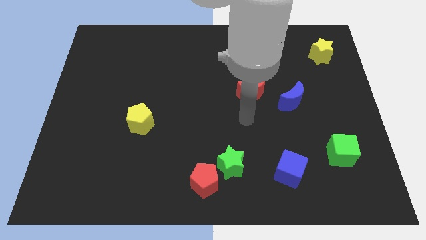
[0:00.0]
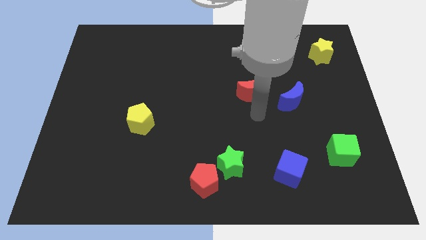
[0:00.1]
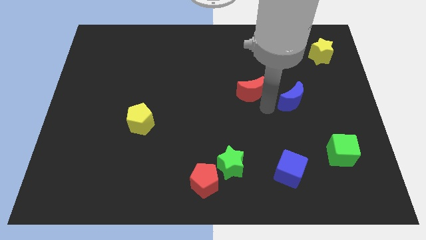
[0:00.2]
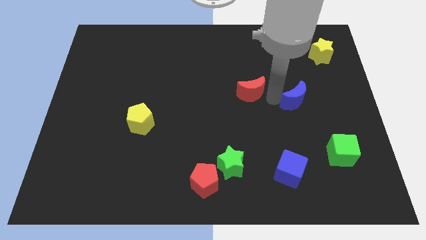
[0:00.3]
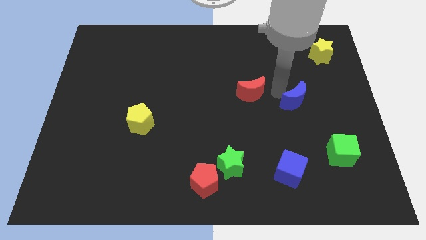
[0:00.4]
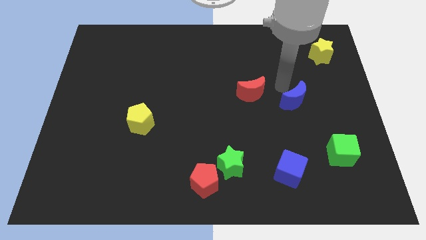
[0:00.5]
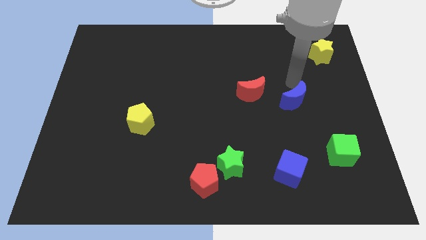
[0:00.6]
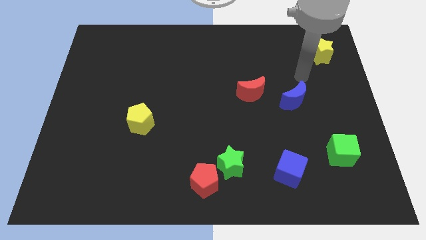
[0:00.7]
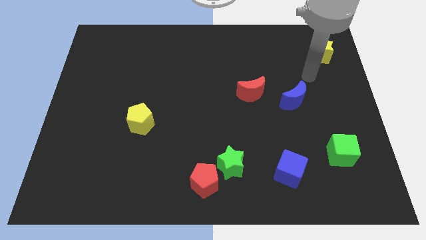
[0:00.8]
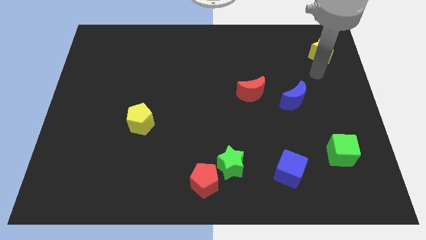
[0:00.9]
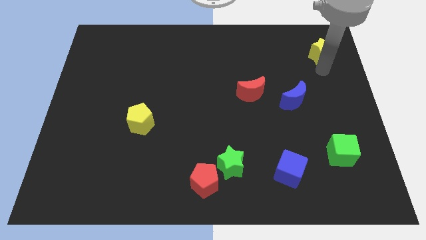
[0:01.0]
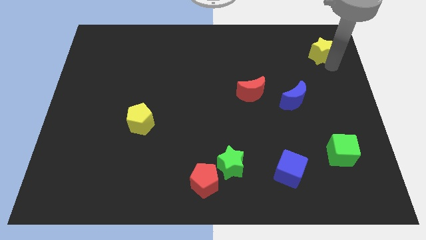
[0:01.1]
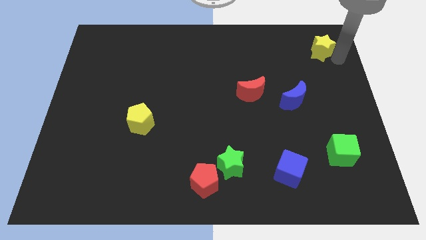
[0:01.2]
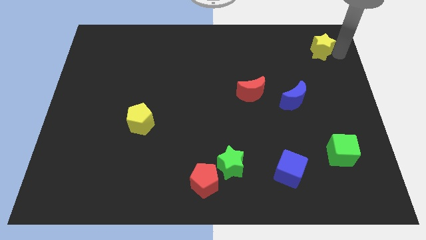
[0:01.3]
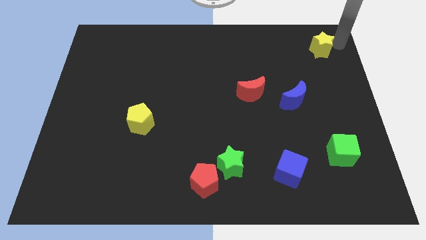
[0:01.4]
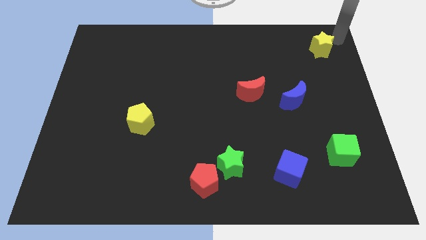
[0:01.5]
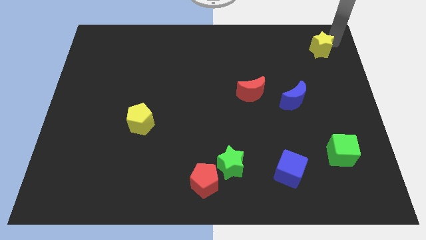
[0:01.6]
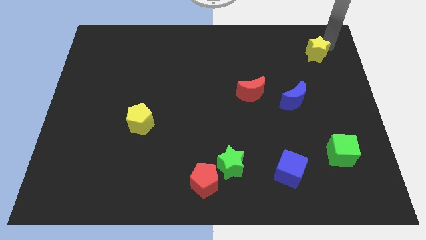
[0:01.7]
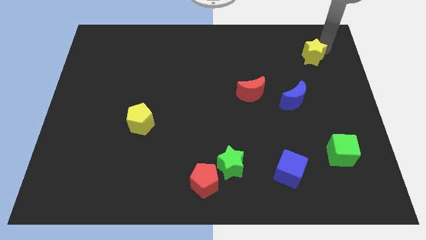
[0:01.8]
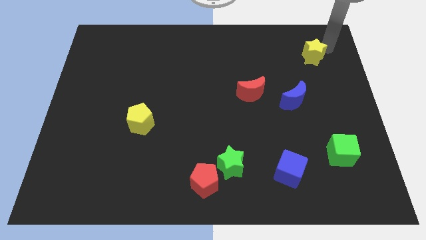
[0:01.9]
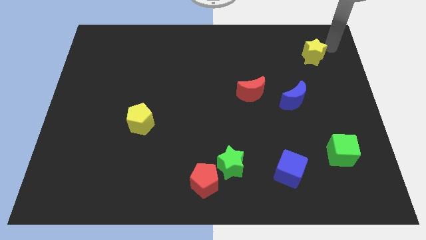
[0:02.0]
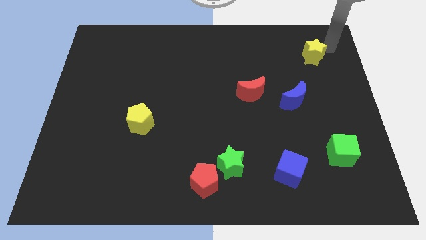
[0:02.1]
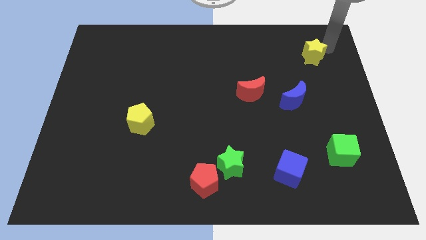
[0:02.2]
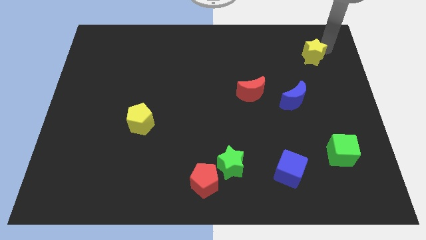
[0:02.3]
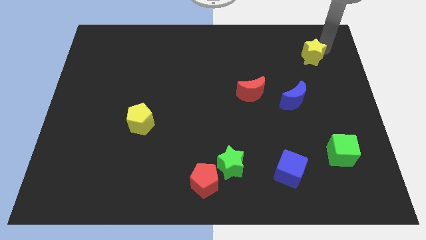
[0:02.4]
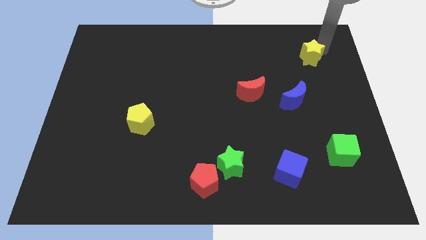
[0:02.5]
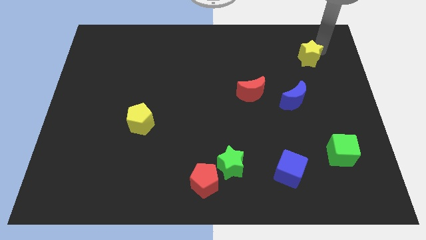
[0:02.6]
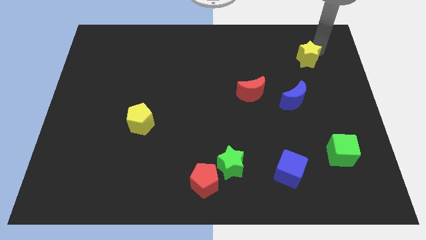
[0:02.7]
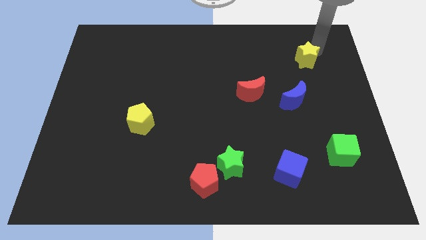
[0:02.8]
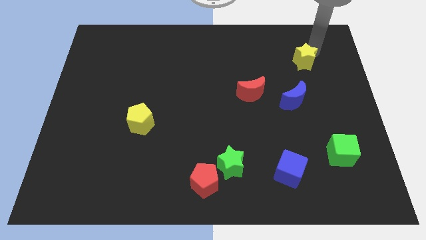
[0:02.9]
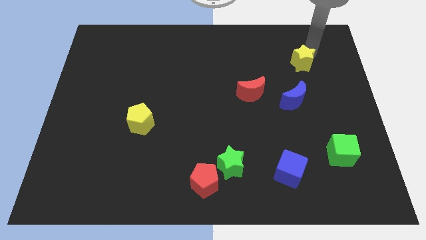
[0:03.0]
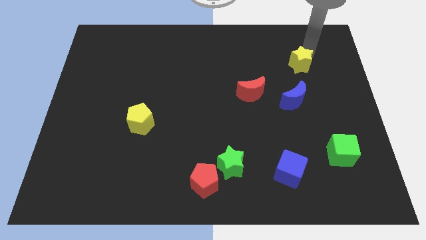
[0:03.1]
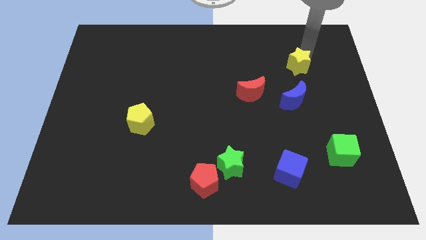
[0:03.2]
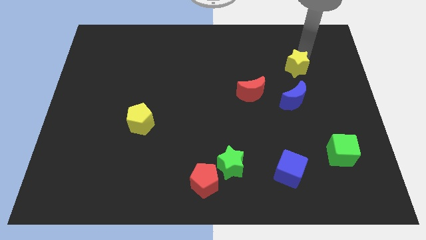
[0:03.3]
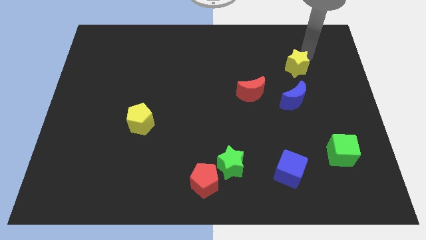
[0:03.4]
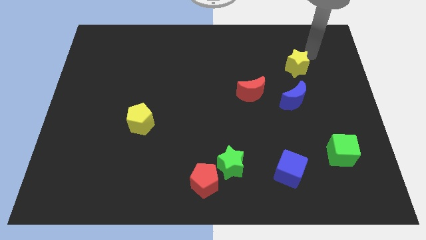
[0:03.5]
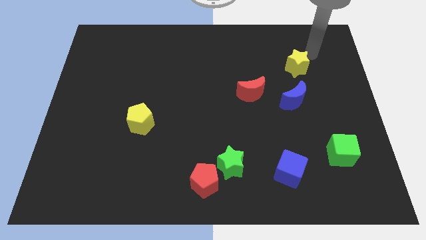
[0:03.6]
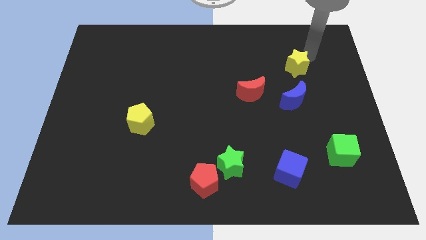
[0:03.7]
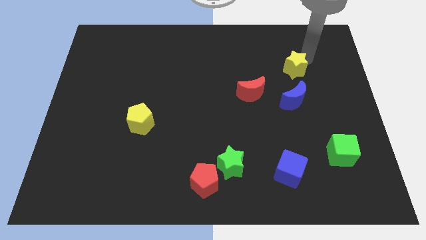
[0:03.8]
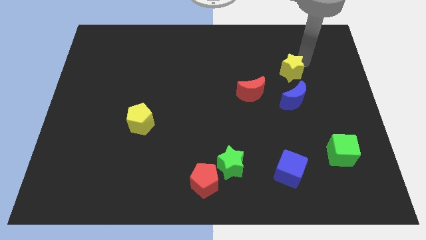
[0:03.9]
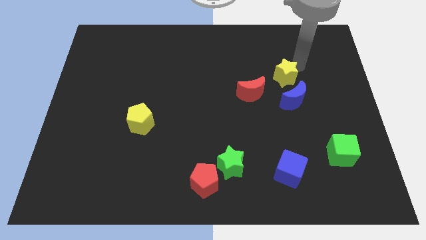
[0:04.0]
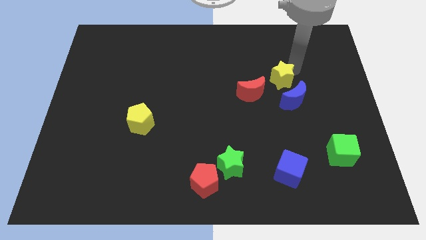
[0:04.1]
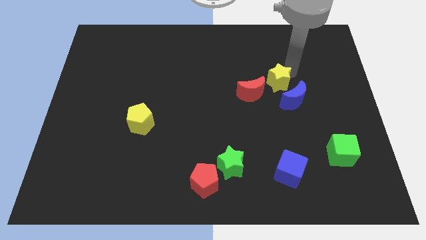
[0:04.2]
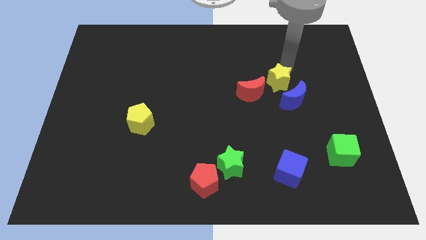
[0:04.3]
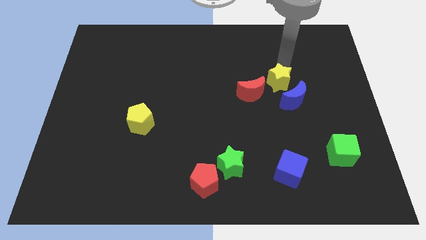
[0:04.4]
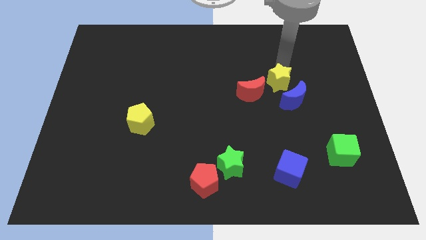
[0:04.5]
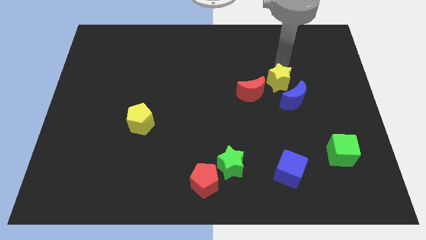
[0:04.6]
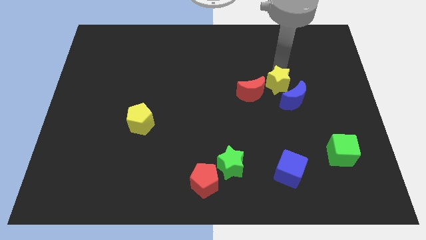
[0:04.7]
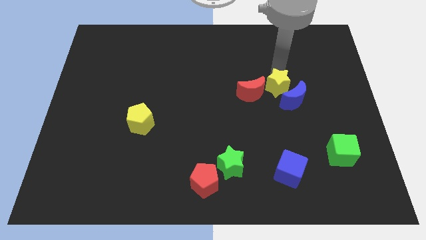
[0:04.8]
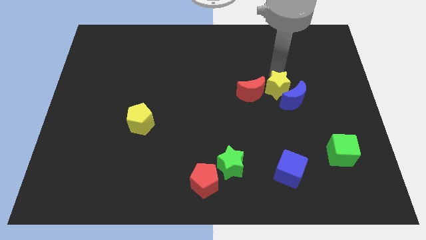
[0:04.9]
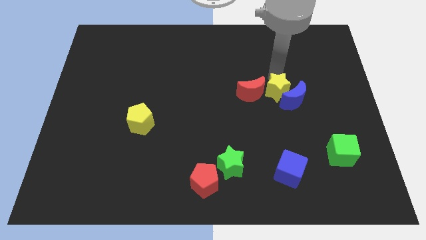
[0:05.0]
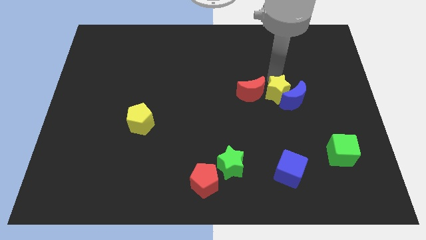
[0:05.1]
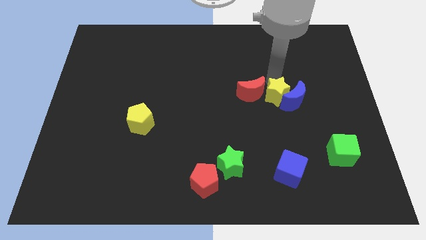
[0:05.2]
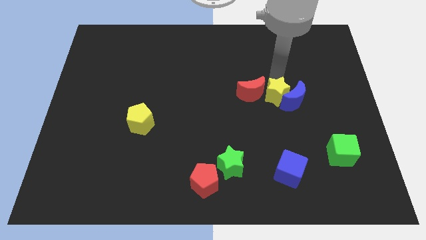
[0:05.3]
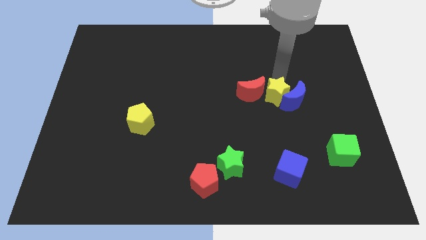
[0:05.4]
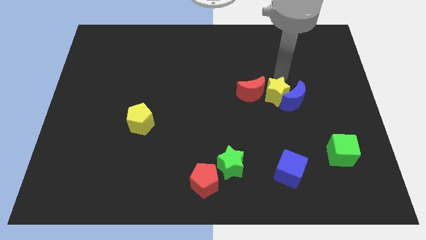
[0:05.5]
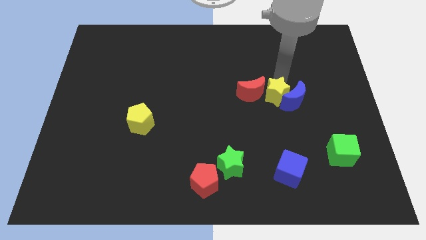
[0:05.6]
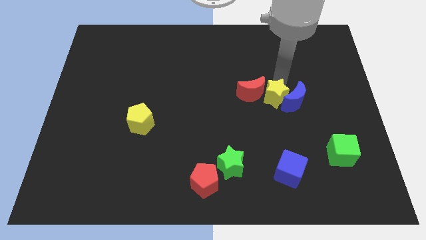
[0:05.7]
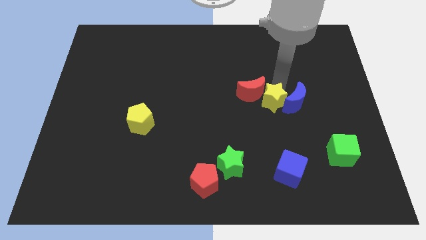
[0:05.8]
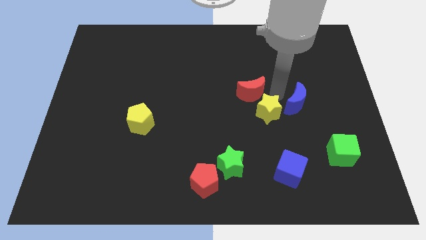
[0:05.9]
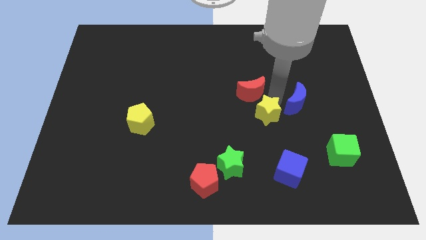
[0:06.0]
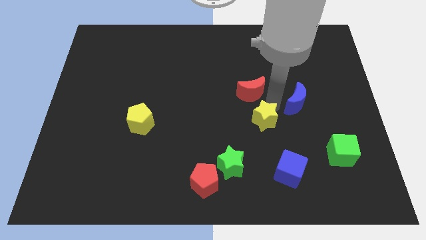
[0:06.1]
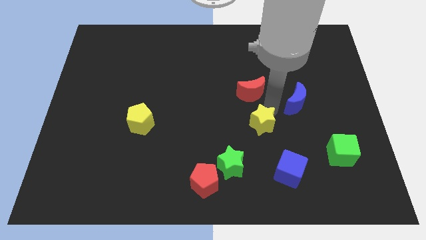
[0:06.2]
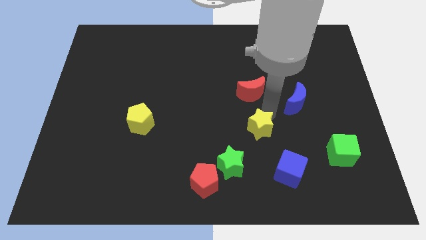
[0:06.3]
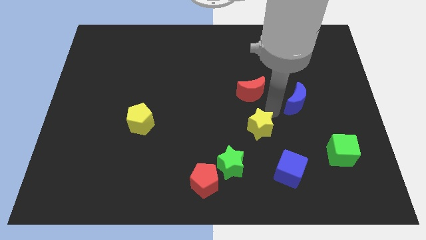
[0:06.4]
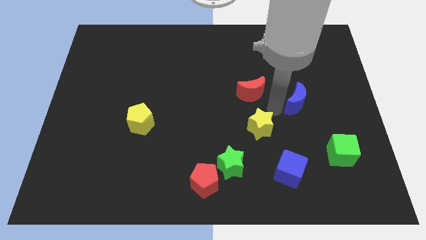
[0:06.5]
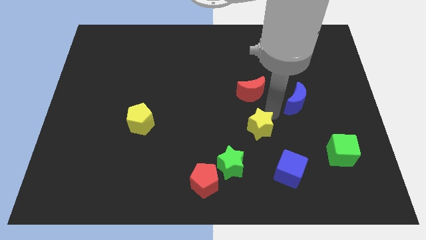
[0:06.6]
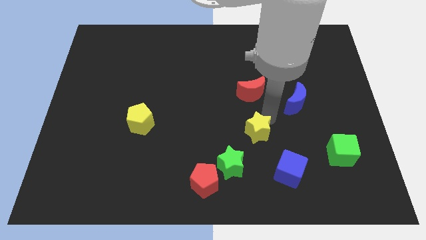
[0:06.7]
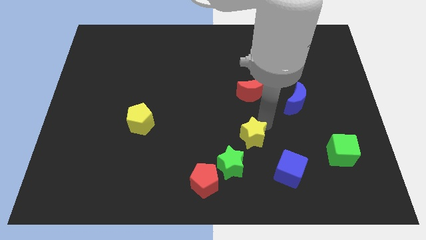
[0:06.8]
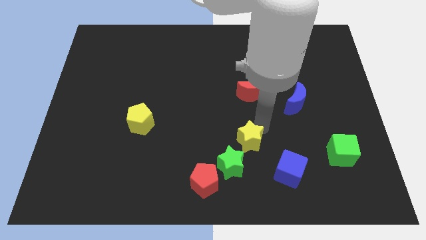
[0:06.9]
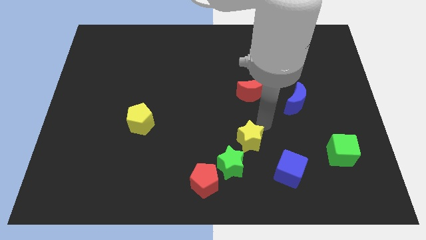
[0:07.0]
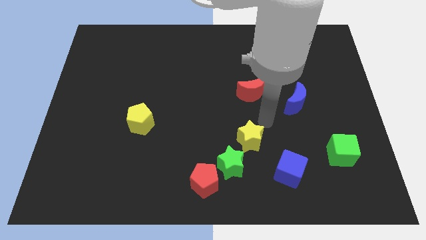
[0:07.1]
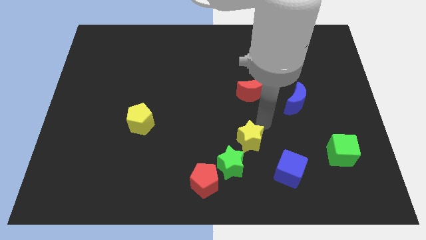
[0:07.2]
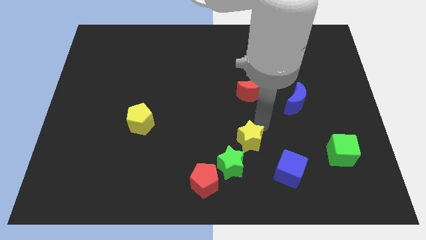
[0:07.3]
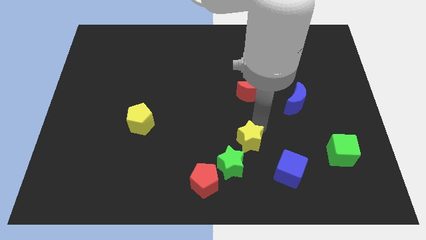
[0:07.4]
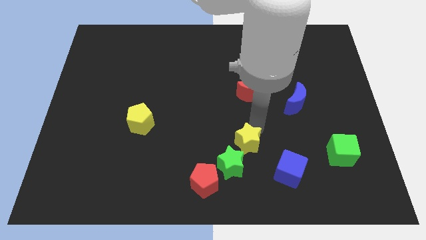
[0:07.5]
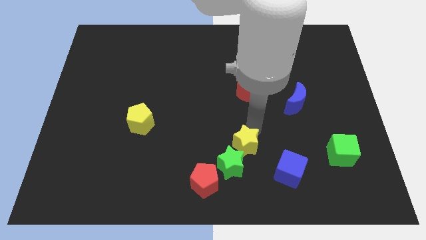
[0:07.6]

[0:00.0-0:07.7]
put the yellow star close to the green star
